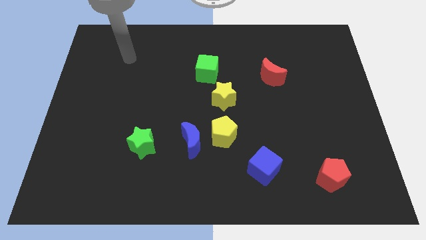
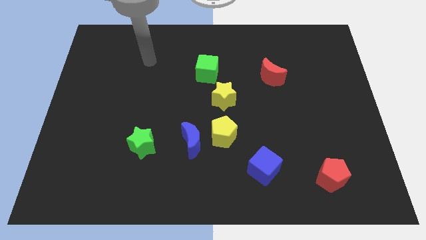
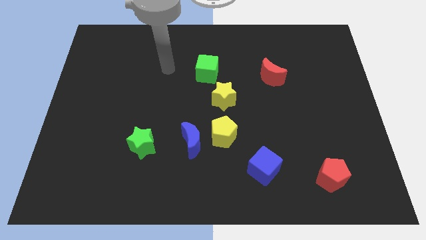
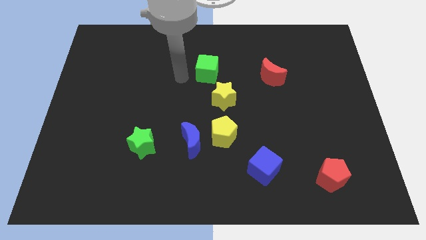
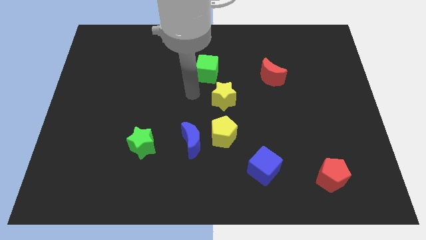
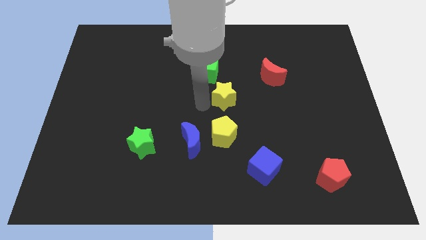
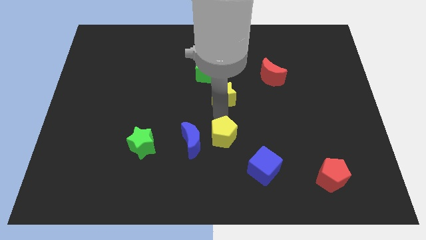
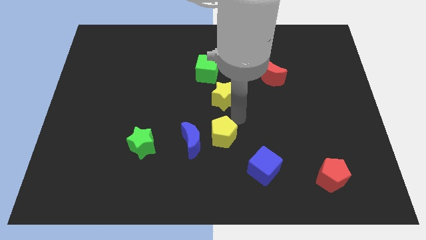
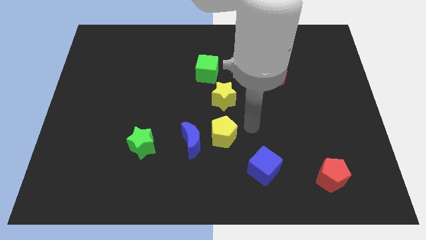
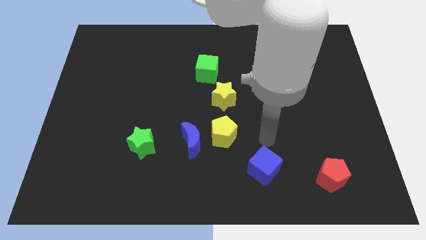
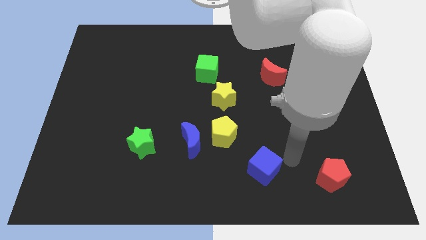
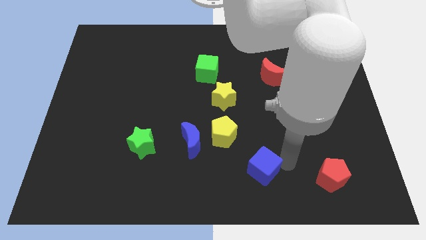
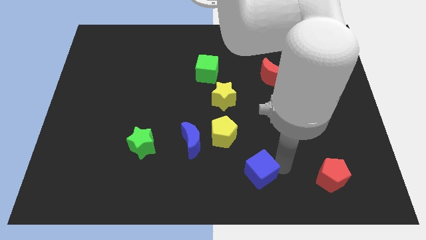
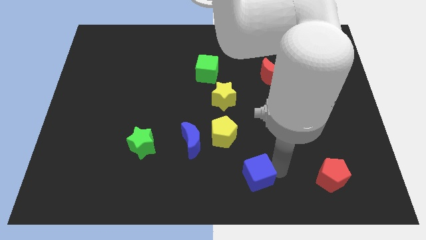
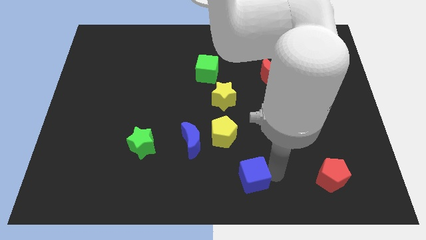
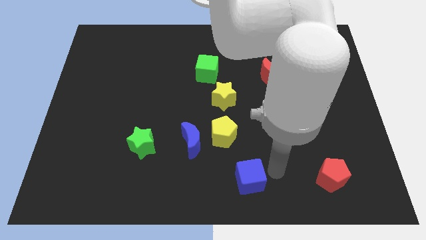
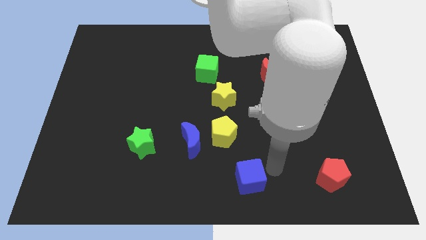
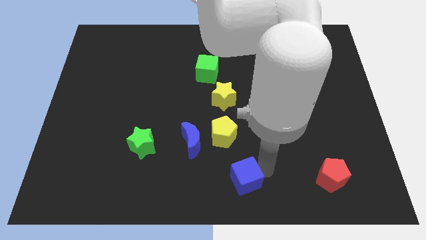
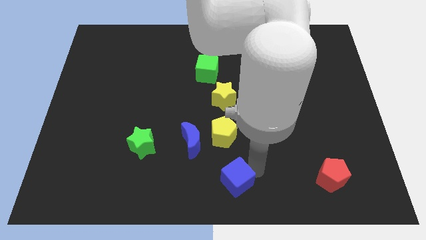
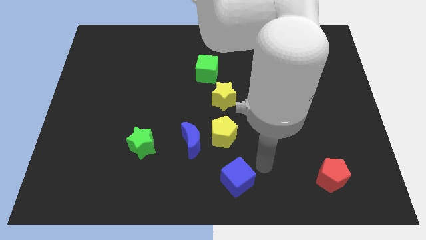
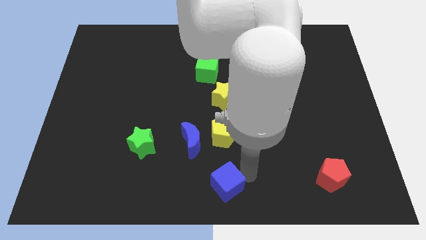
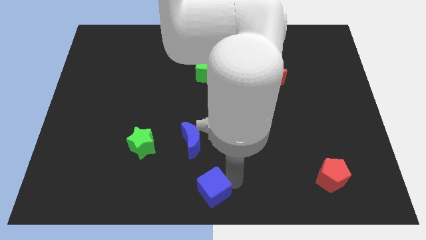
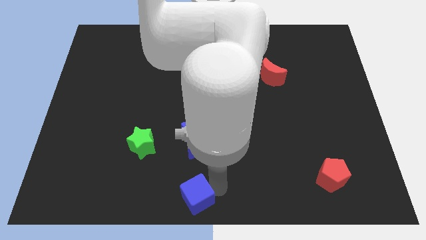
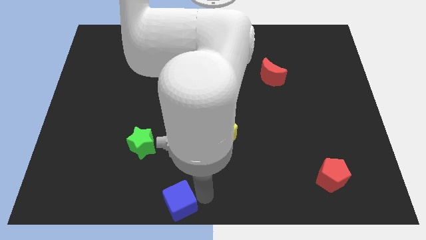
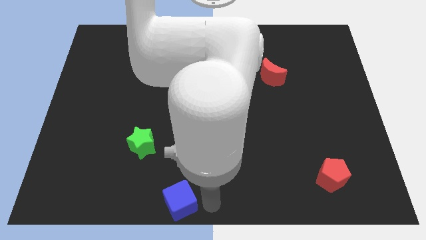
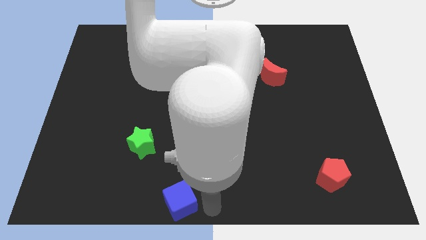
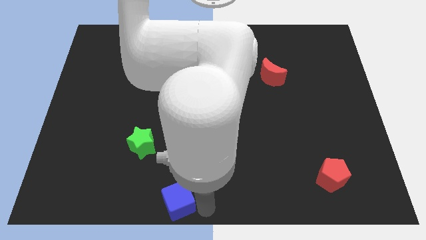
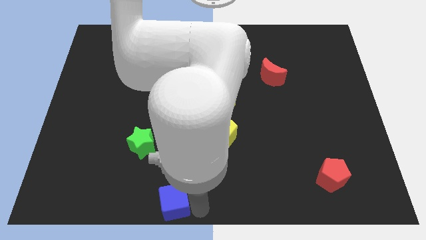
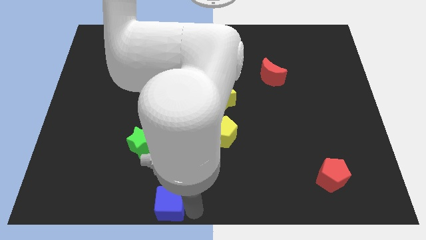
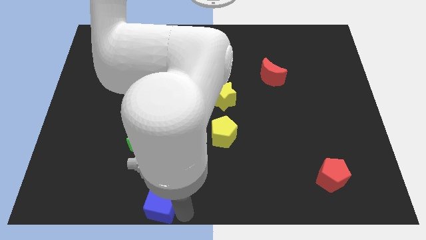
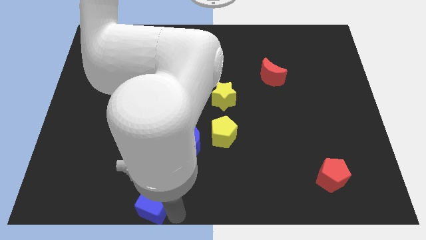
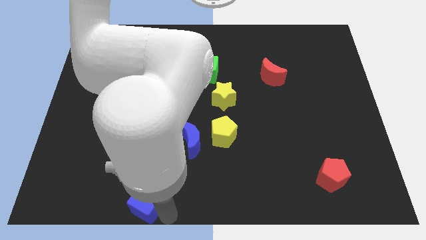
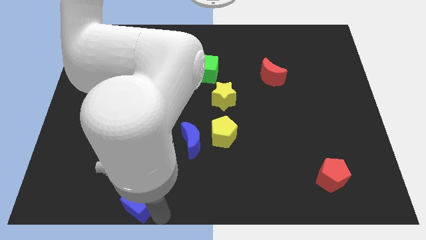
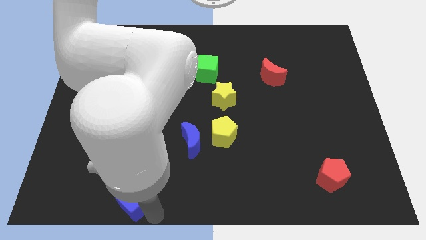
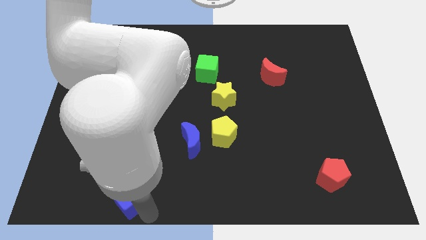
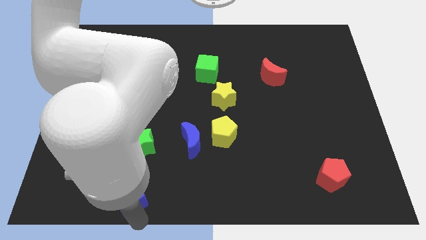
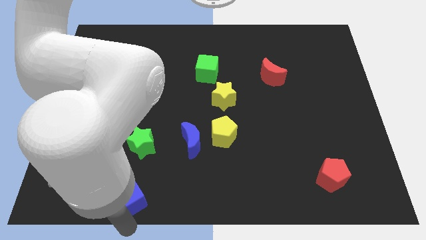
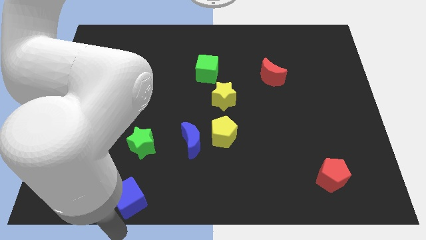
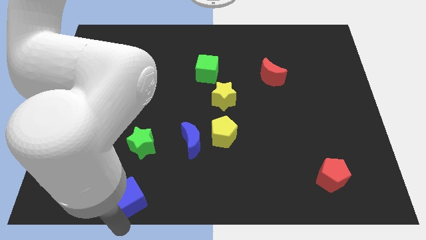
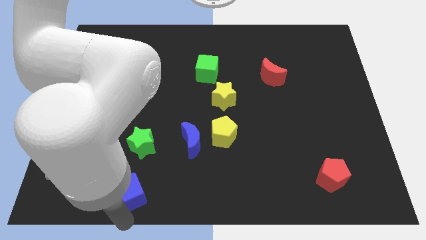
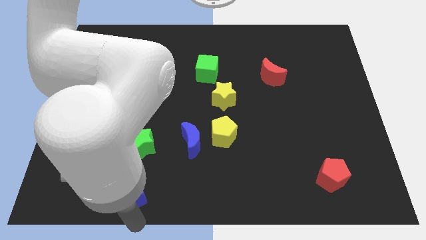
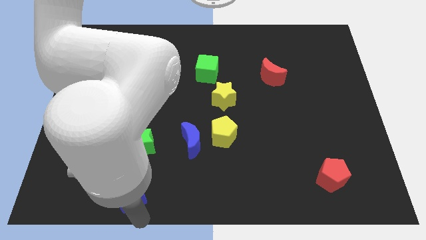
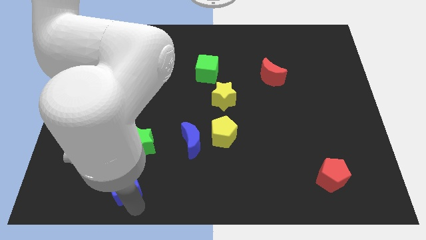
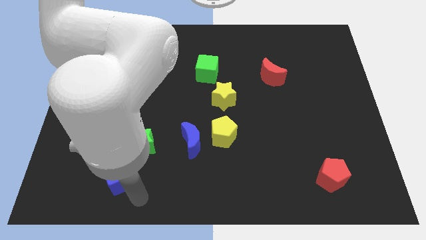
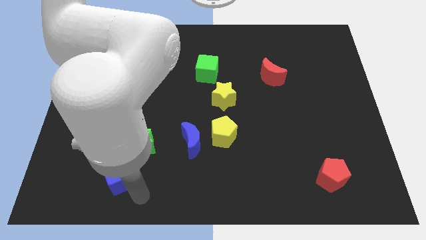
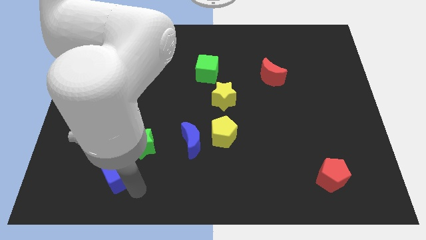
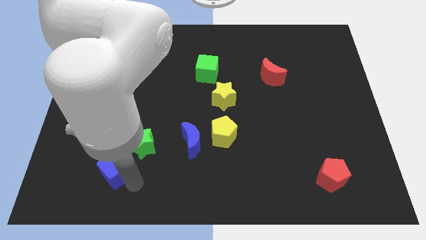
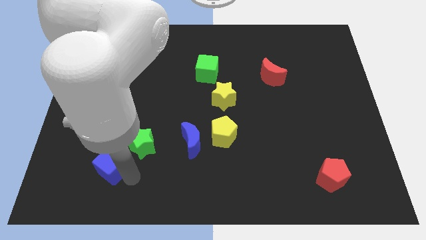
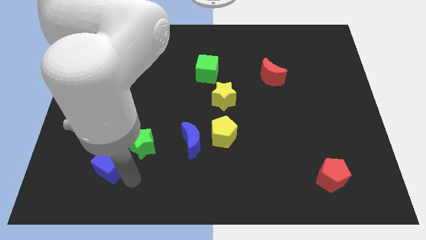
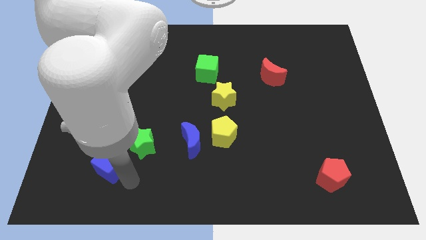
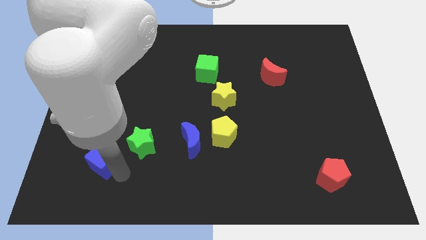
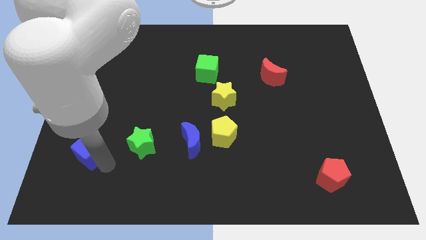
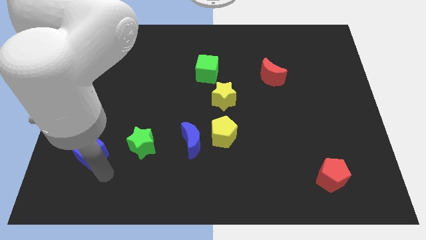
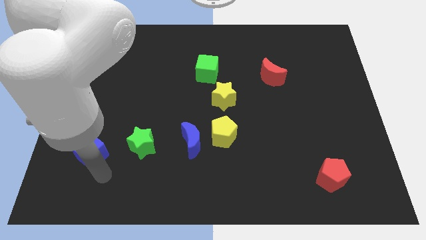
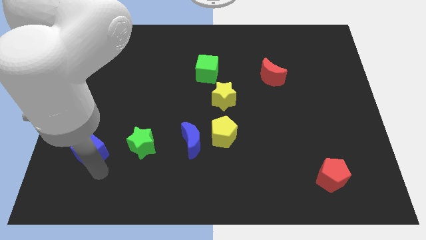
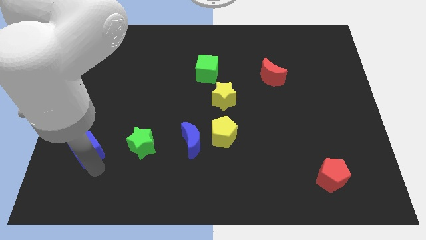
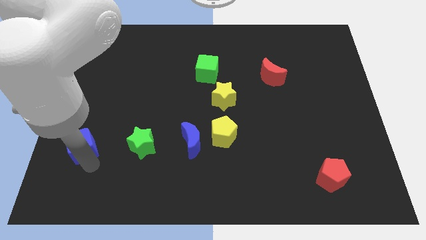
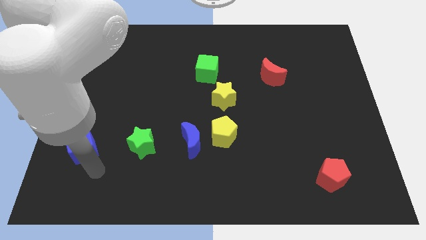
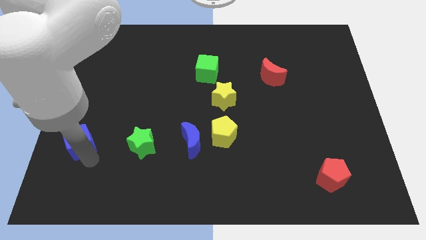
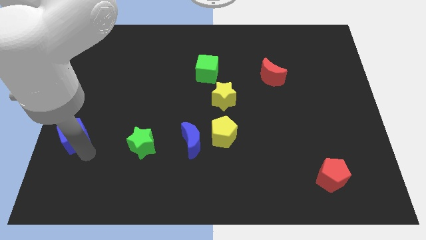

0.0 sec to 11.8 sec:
move the blue cube to the center left

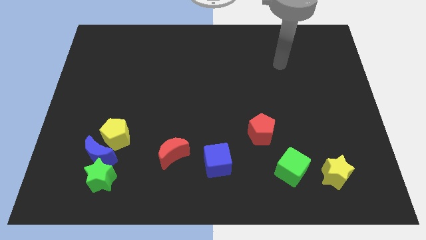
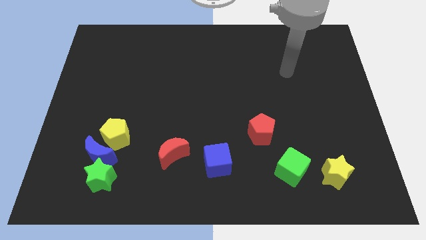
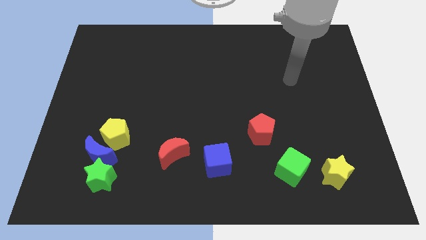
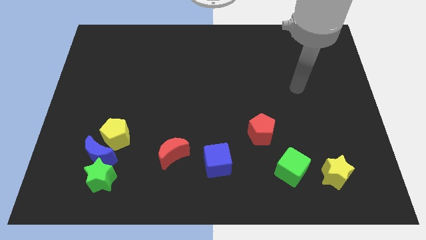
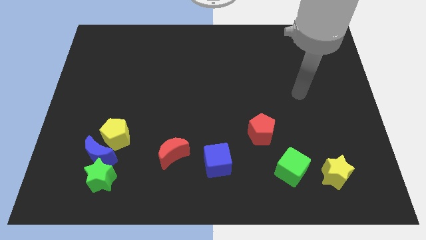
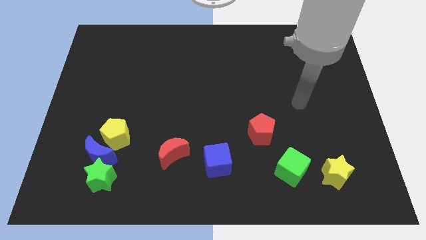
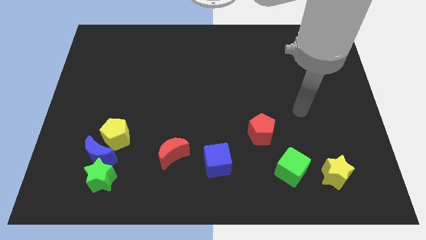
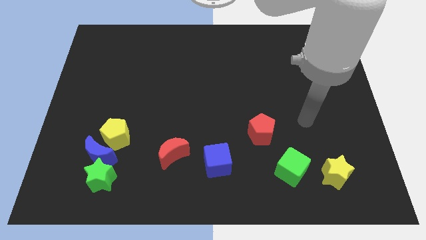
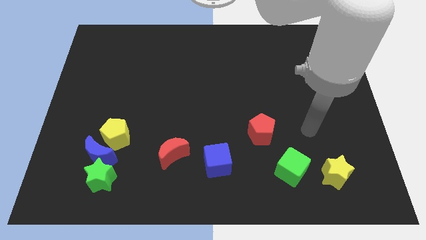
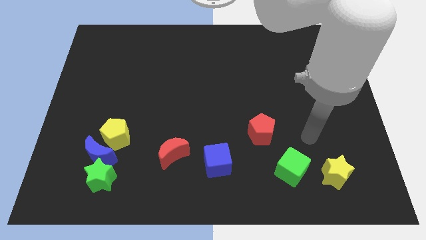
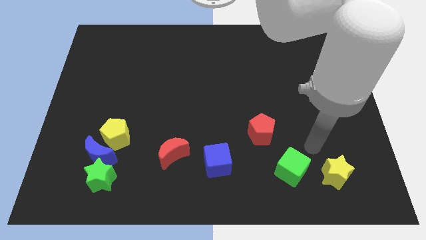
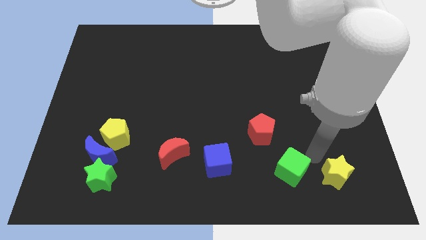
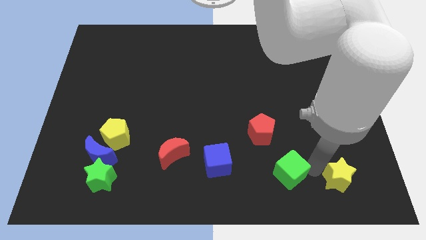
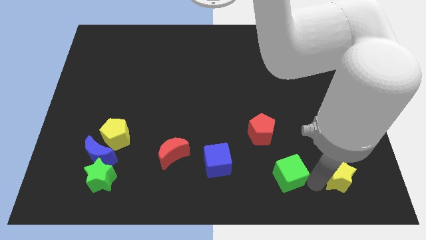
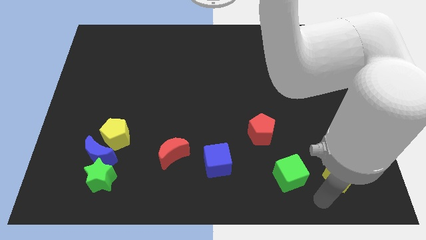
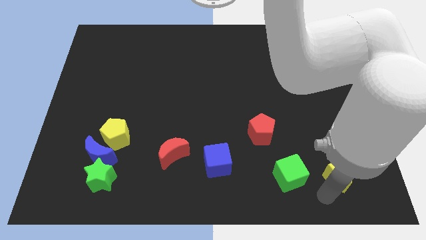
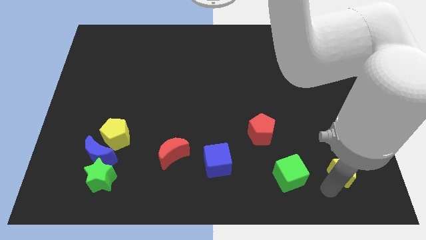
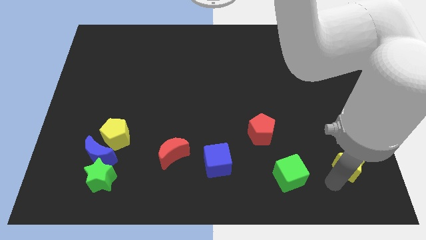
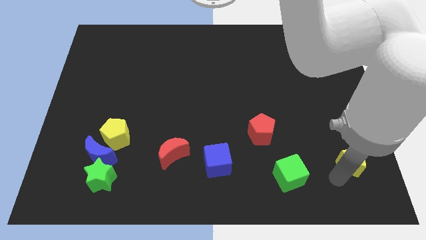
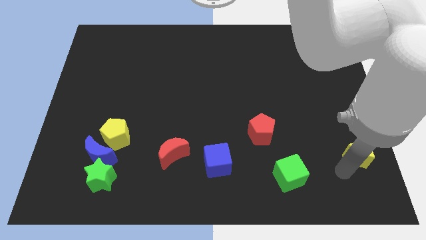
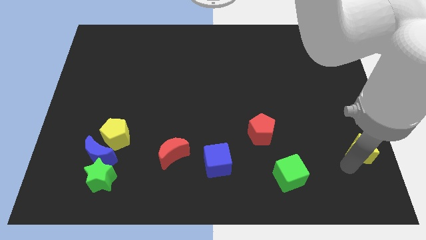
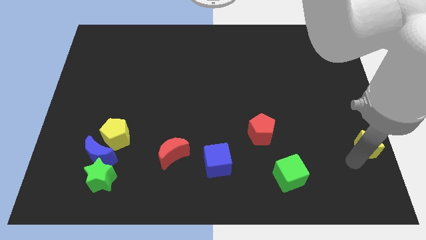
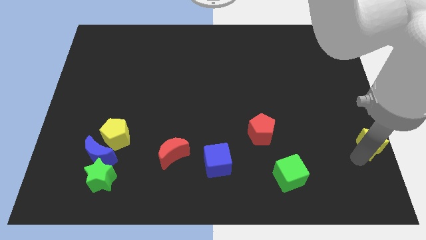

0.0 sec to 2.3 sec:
slide the yellow star to the right side
